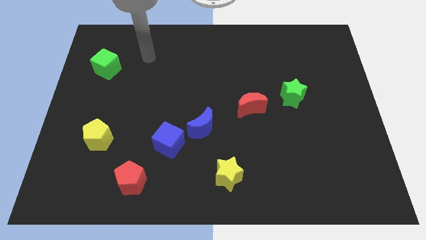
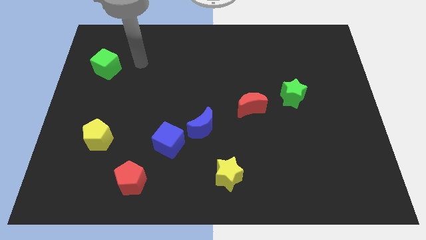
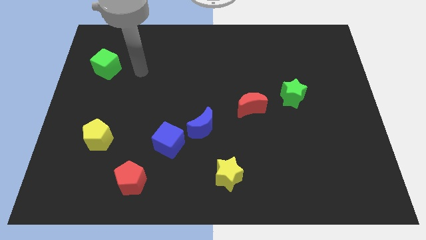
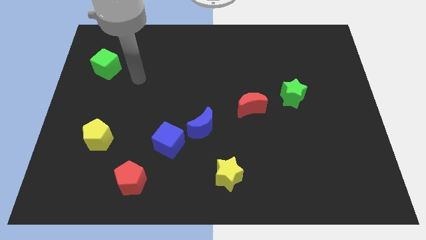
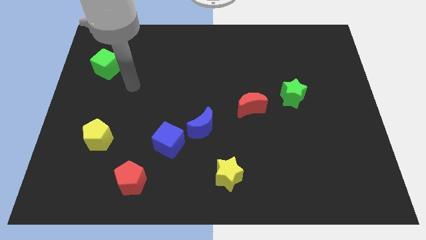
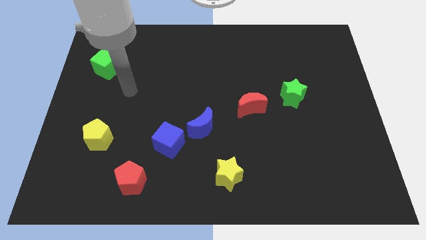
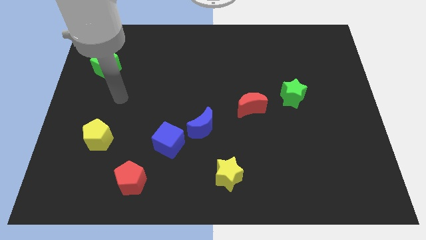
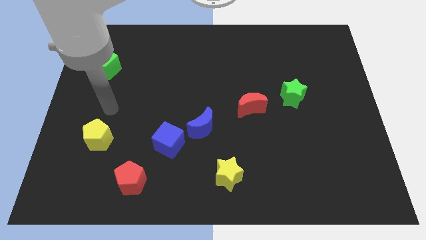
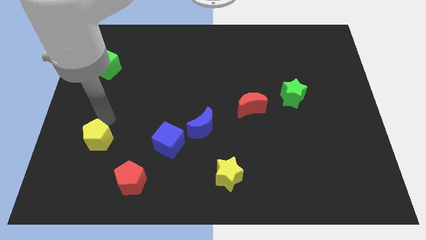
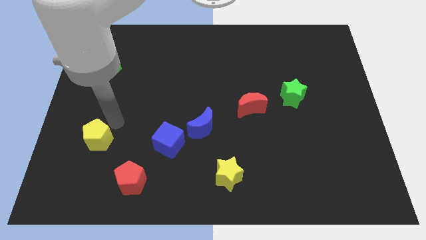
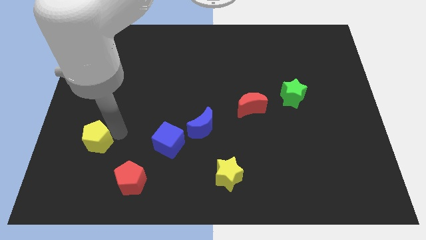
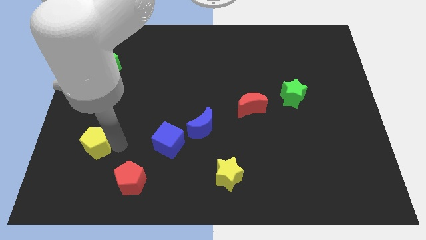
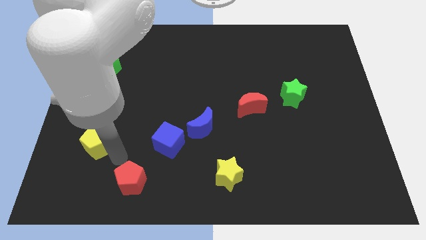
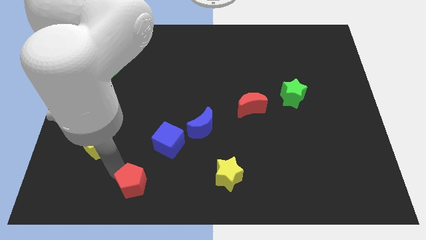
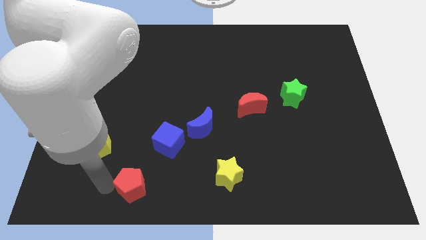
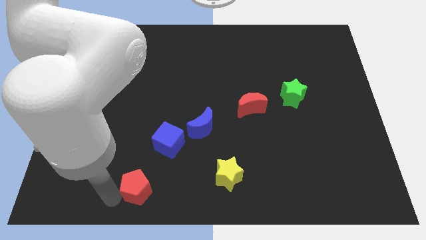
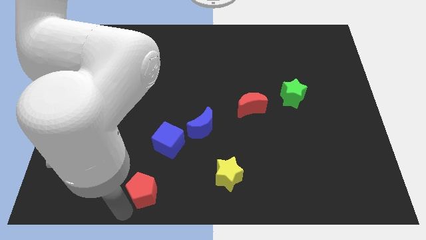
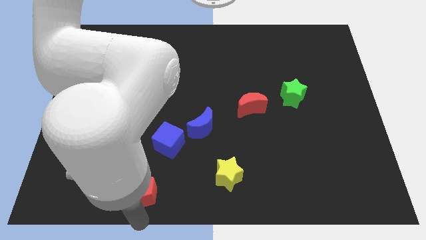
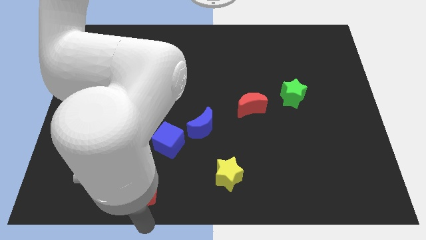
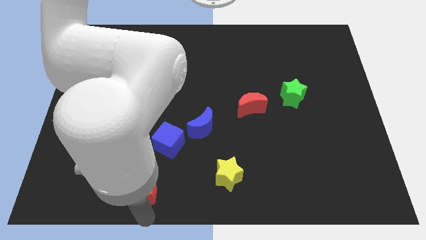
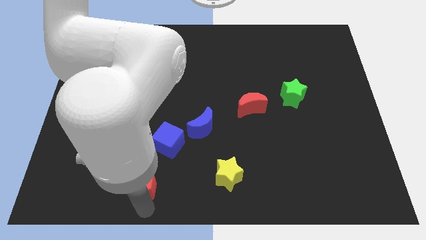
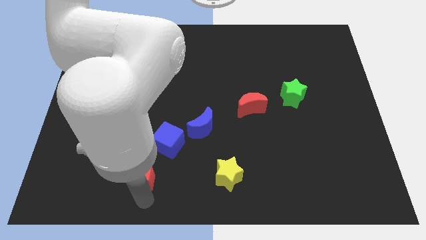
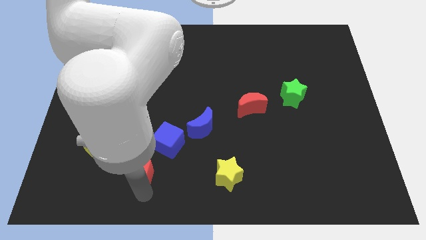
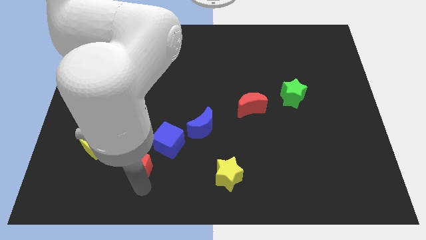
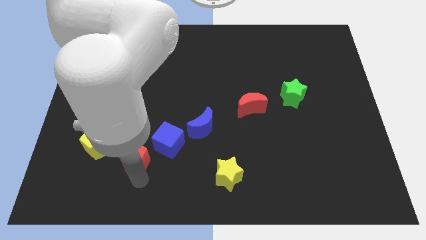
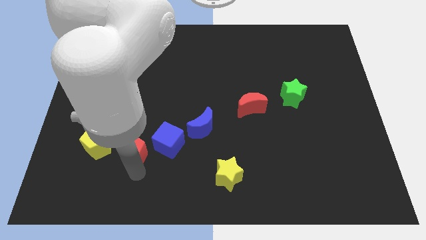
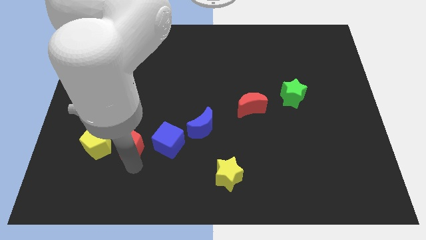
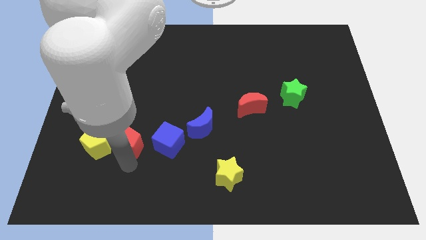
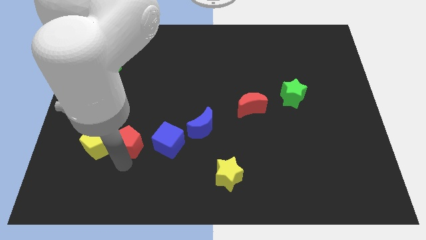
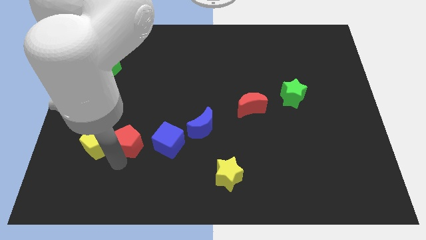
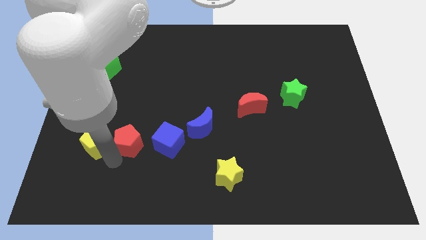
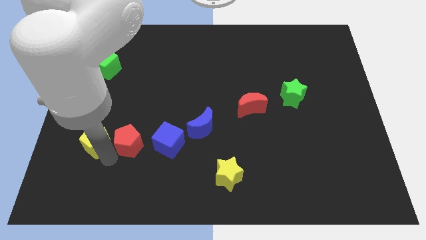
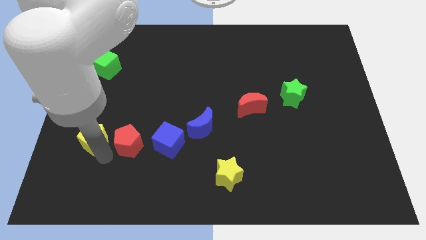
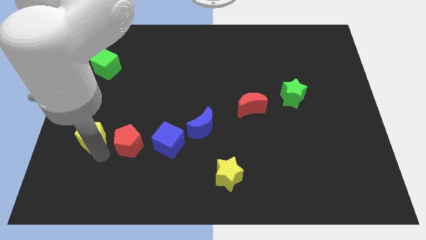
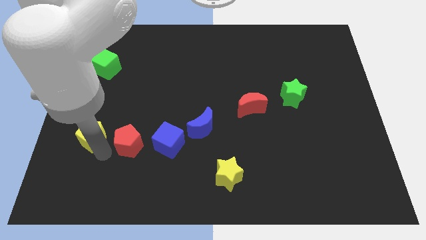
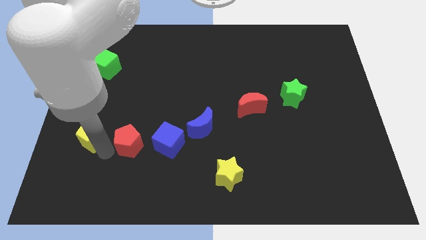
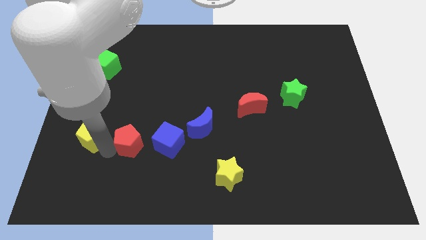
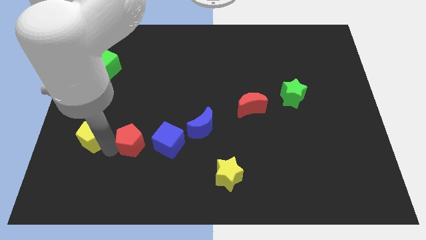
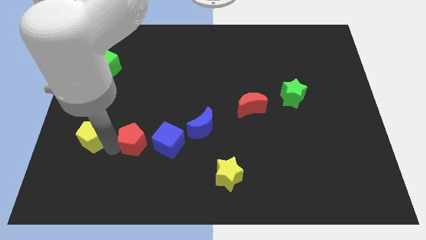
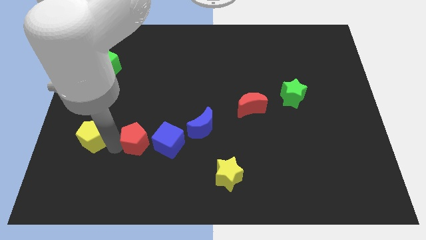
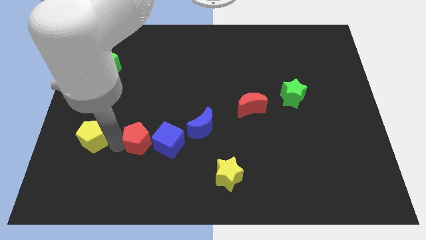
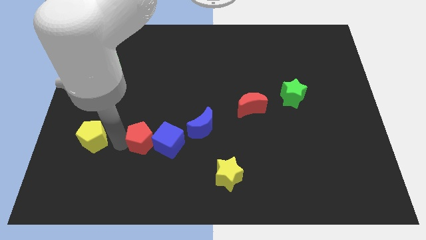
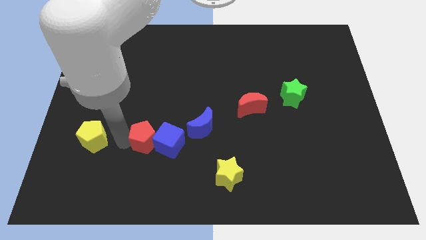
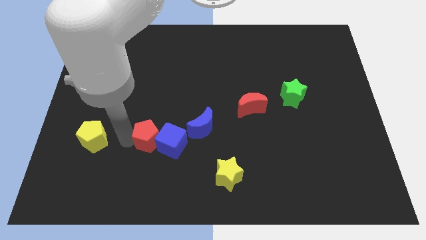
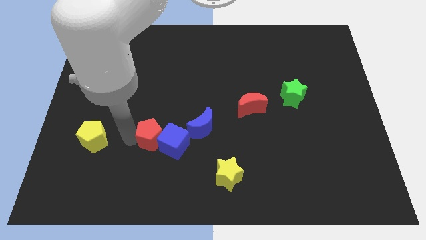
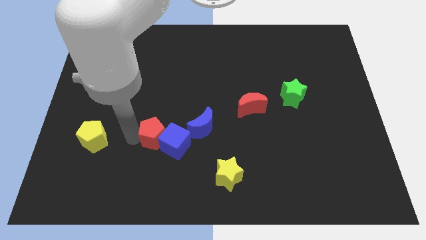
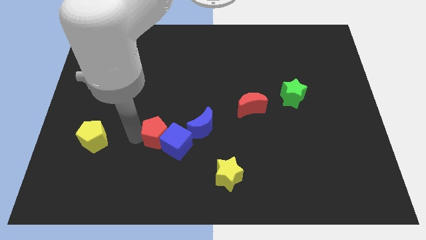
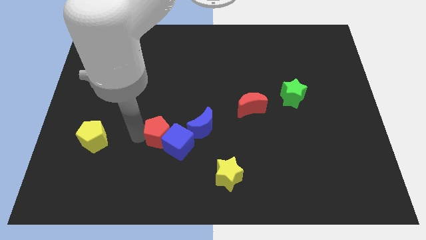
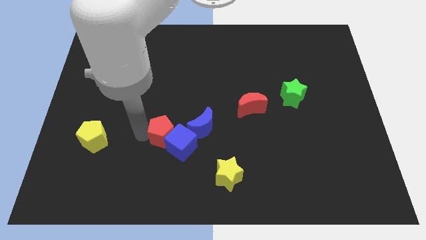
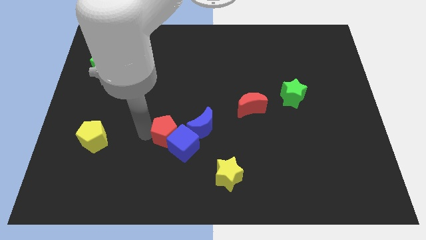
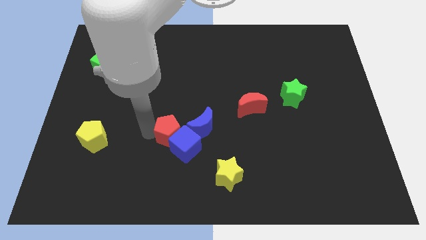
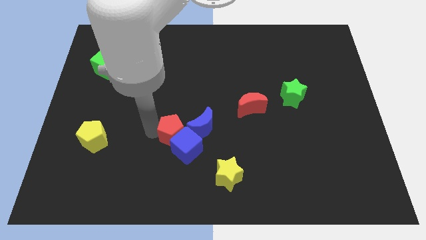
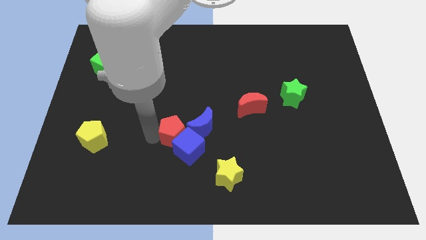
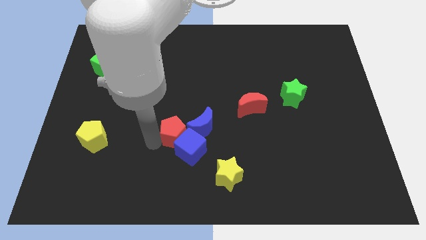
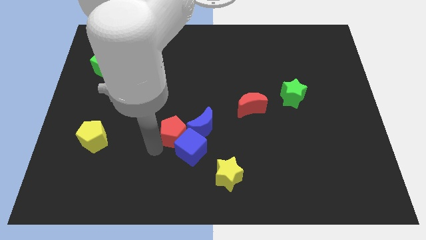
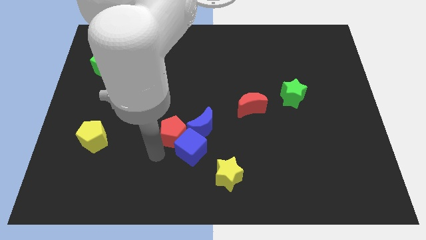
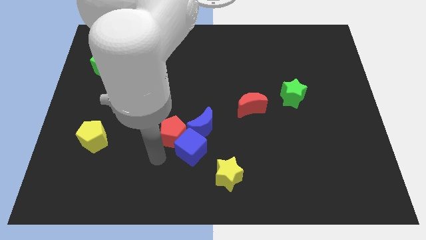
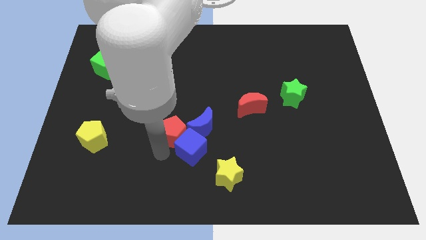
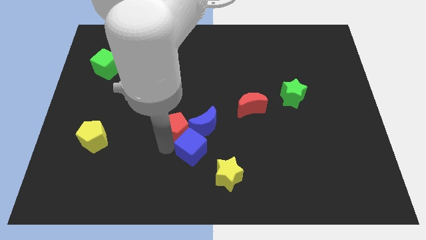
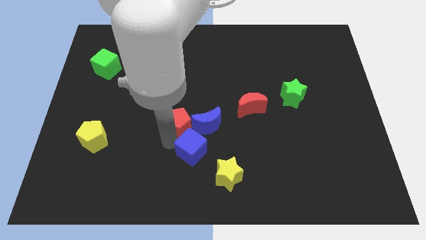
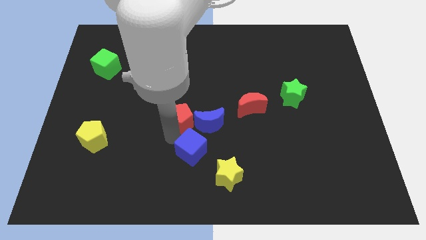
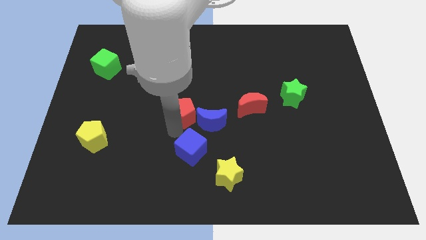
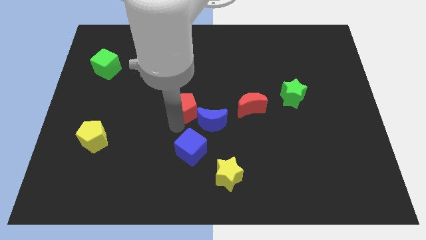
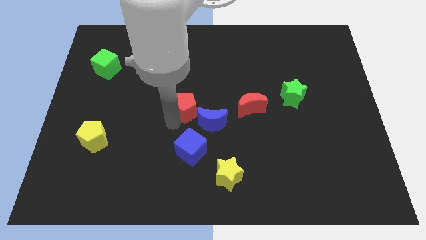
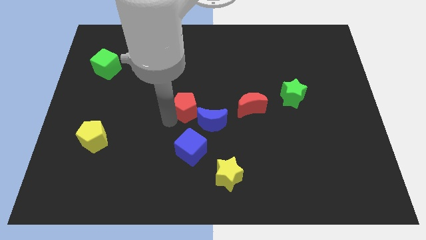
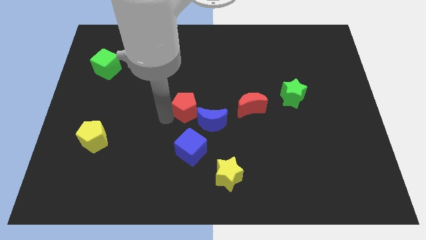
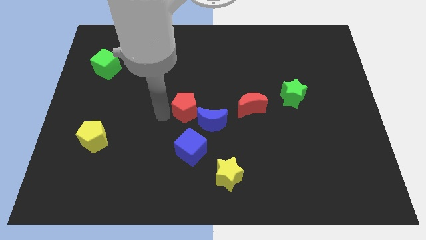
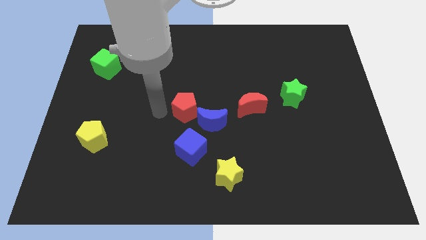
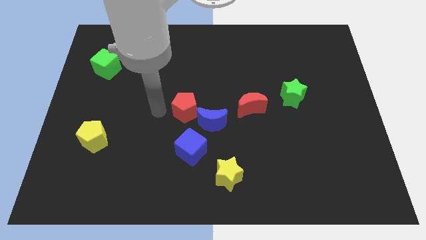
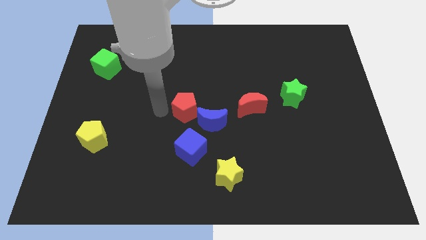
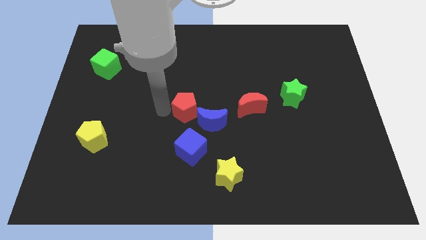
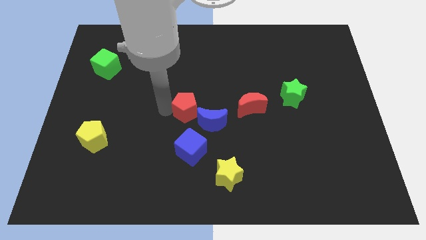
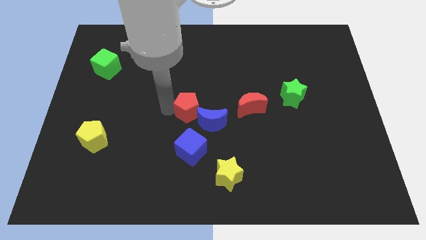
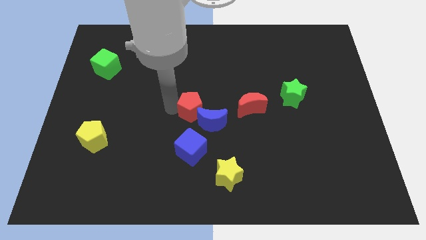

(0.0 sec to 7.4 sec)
move the red pentagon up and to the right

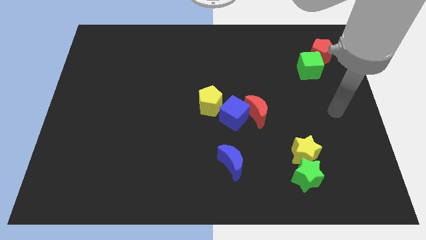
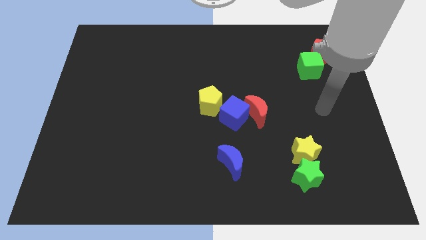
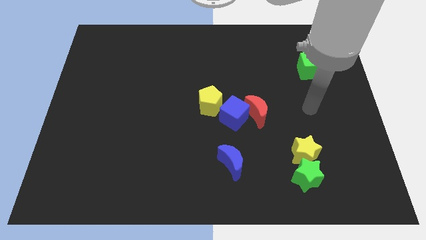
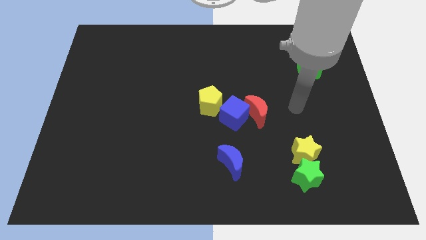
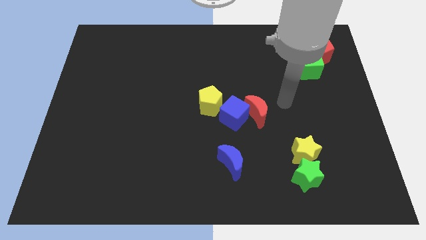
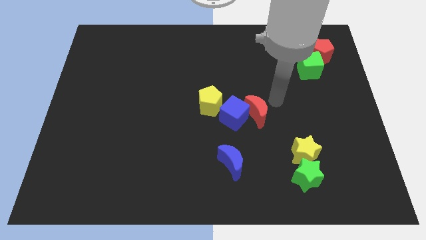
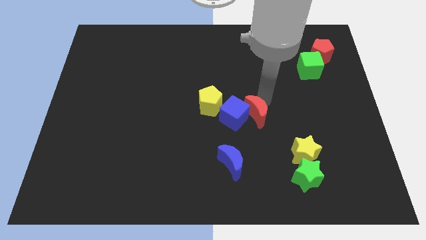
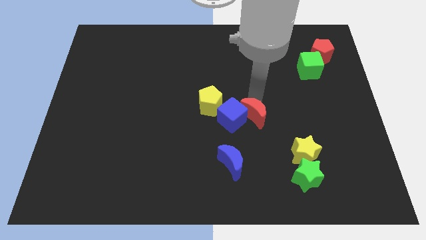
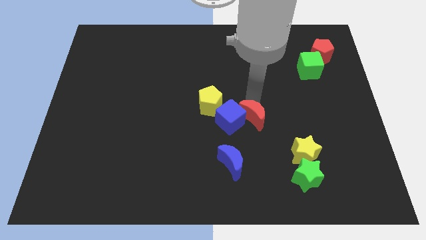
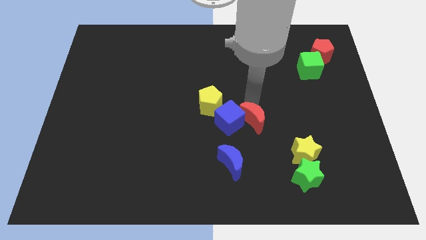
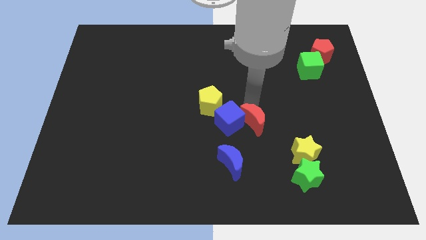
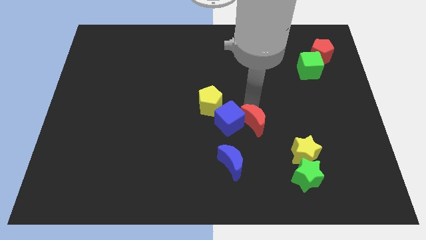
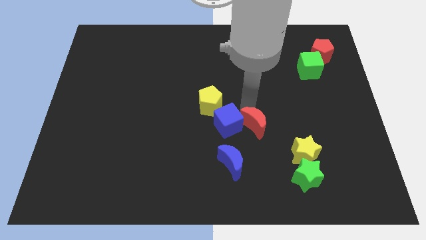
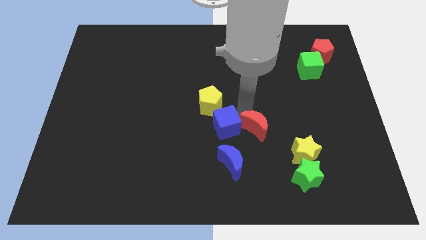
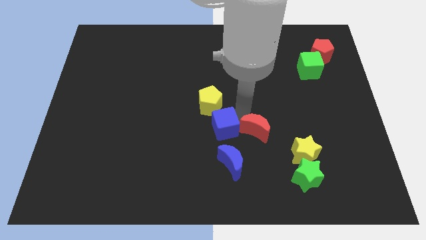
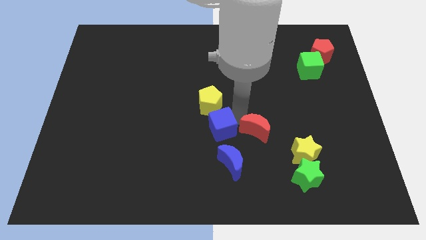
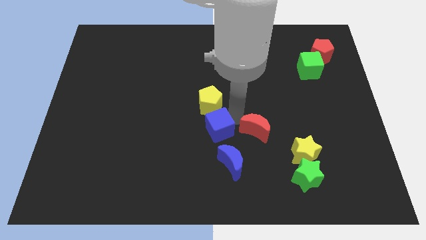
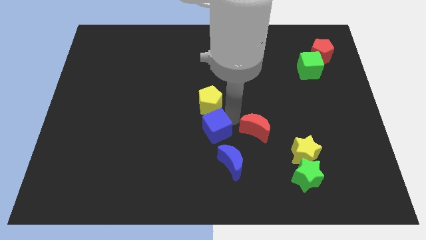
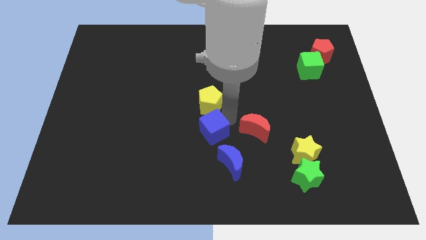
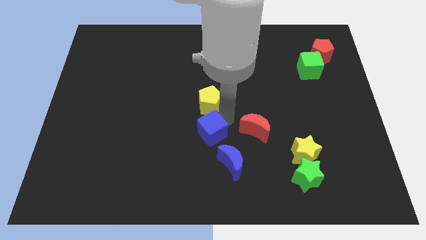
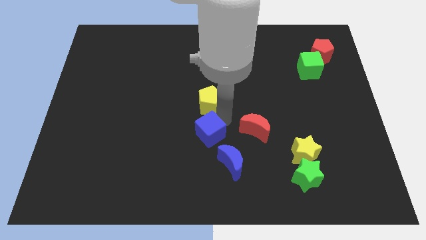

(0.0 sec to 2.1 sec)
slightly move the blue cube down and left
